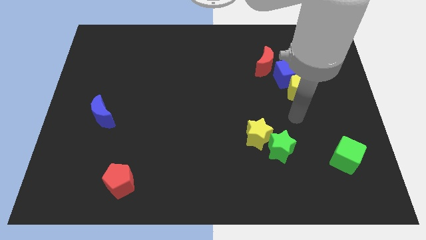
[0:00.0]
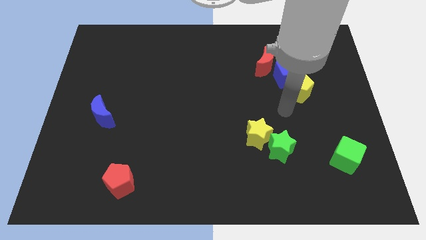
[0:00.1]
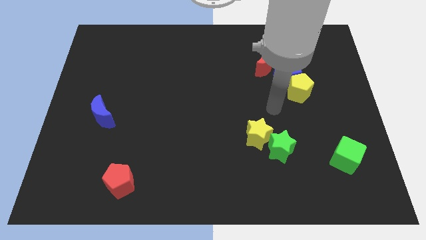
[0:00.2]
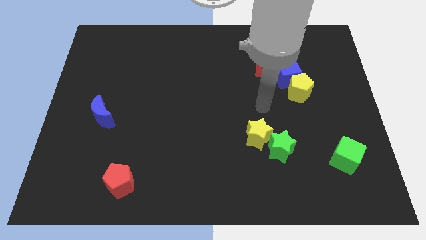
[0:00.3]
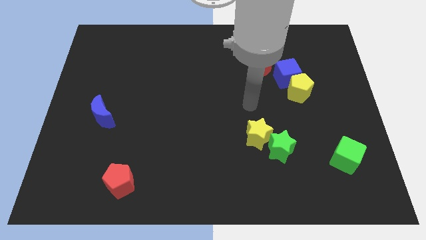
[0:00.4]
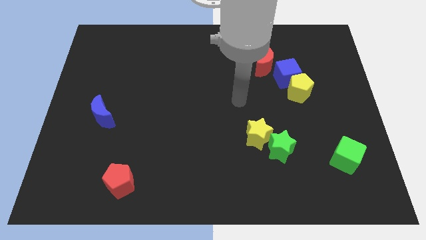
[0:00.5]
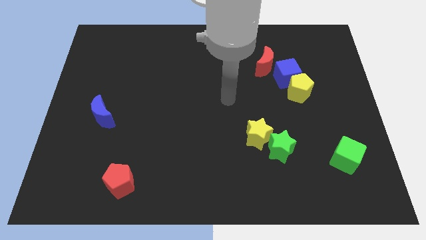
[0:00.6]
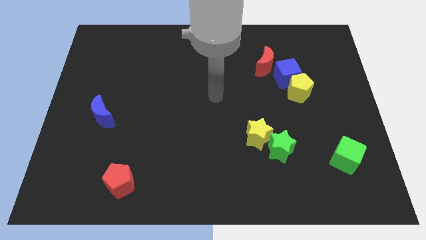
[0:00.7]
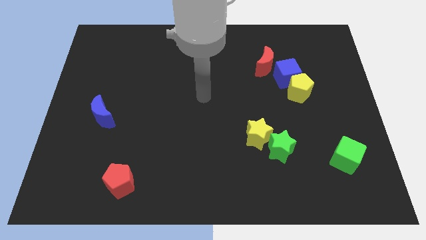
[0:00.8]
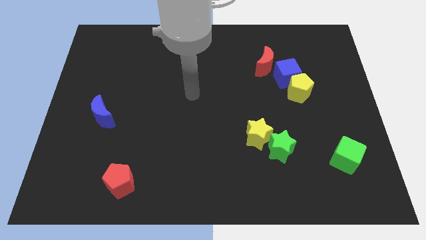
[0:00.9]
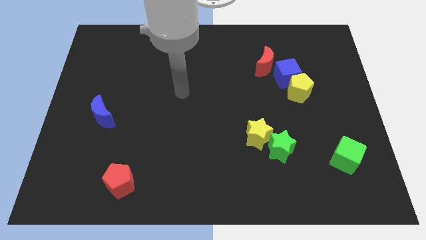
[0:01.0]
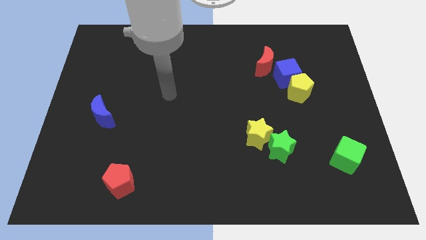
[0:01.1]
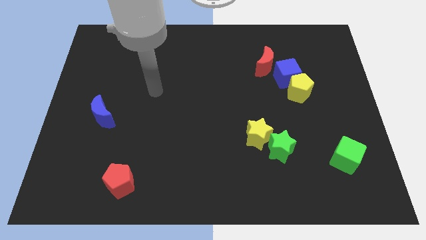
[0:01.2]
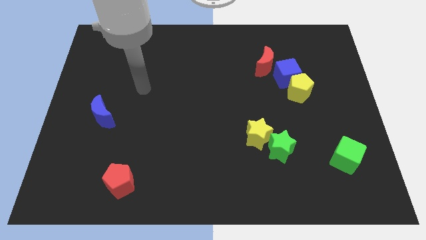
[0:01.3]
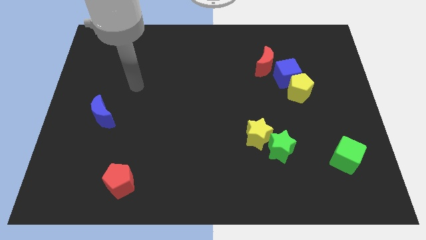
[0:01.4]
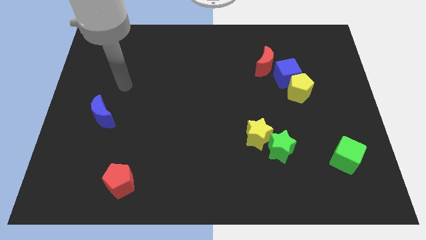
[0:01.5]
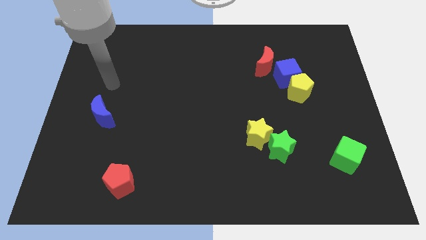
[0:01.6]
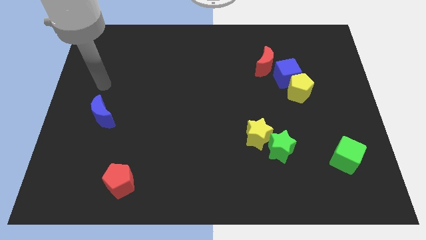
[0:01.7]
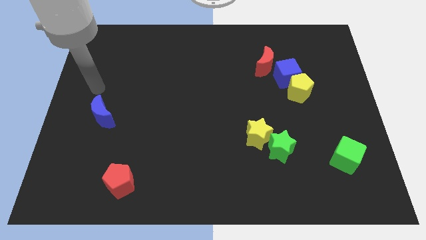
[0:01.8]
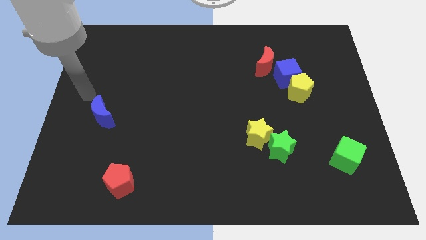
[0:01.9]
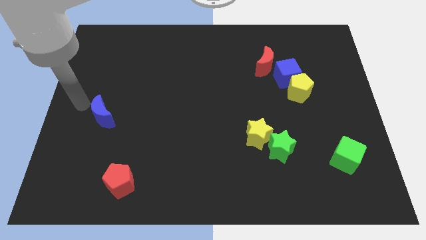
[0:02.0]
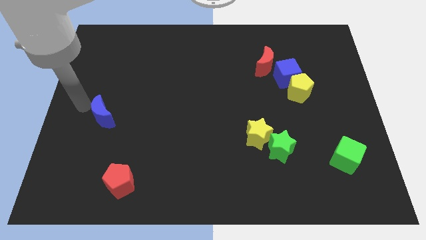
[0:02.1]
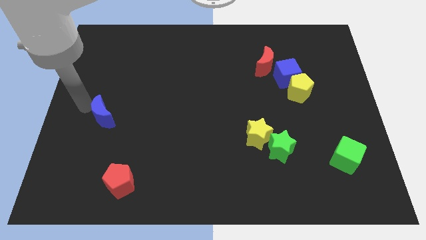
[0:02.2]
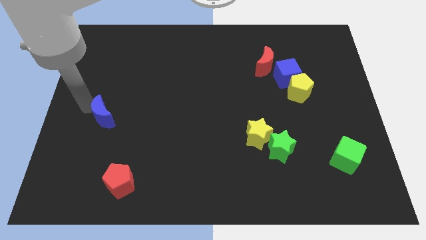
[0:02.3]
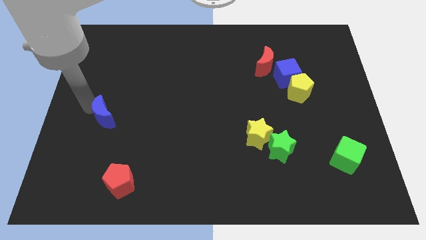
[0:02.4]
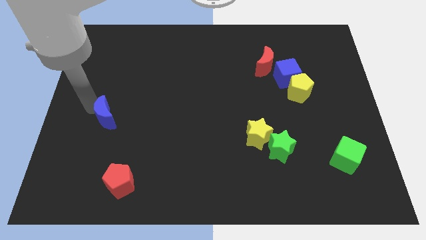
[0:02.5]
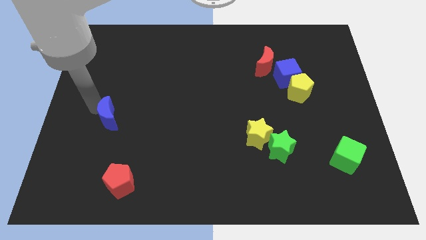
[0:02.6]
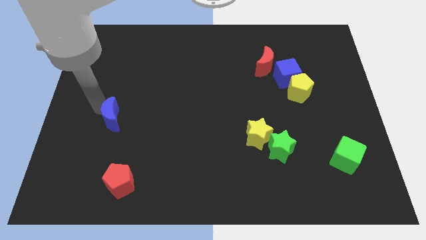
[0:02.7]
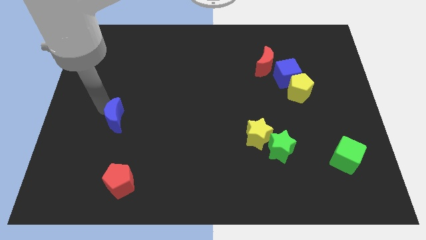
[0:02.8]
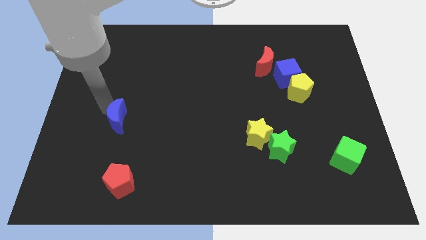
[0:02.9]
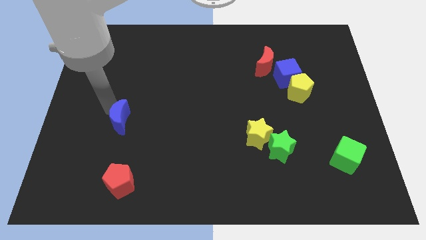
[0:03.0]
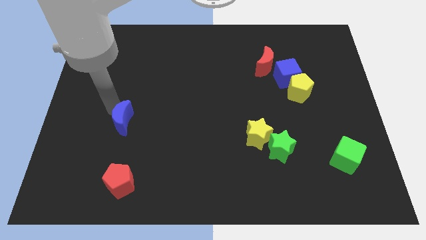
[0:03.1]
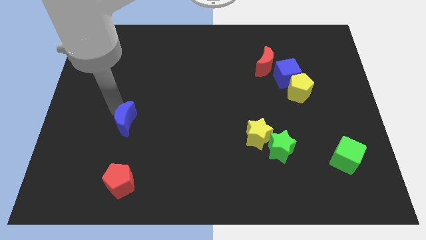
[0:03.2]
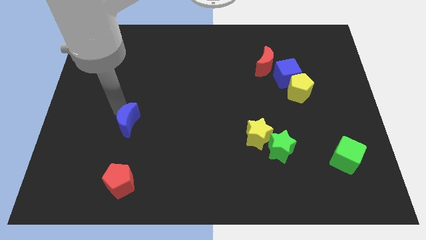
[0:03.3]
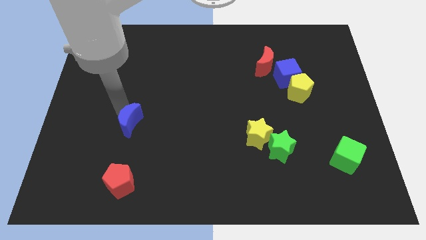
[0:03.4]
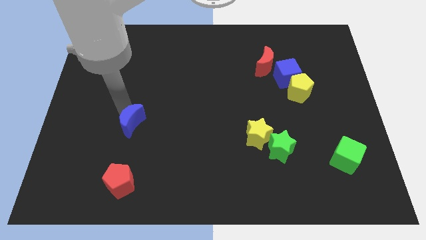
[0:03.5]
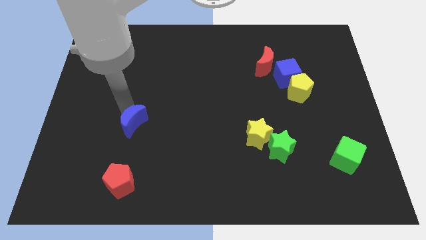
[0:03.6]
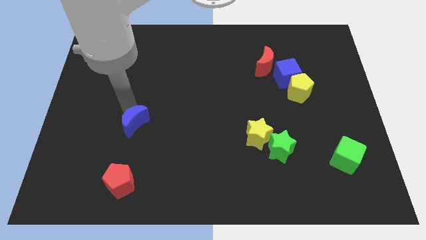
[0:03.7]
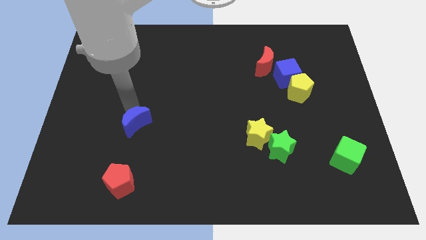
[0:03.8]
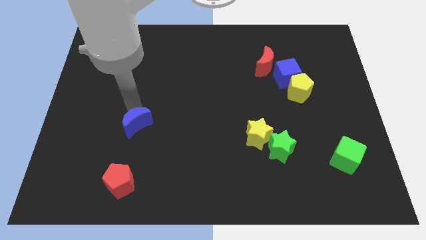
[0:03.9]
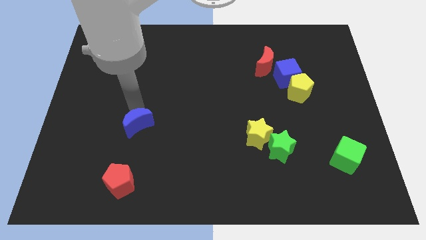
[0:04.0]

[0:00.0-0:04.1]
slide the blue moon a little bit down and to the right diagonally

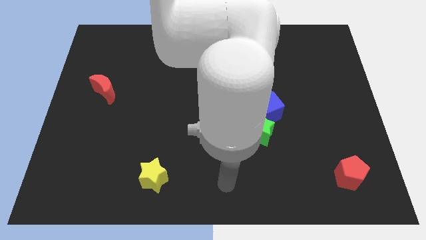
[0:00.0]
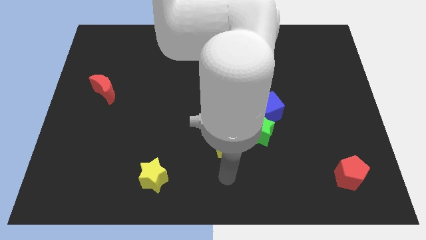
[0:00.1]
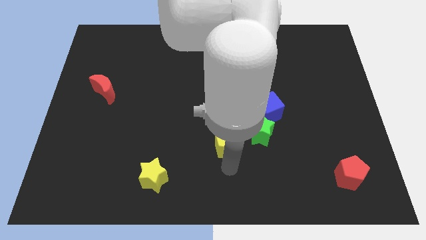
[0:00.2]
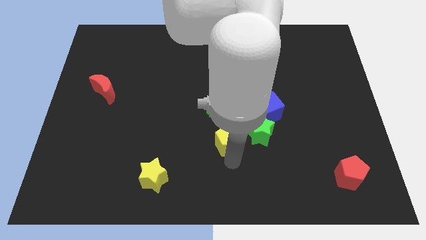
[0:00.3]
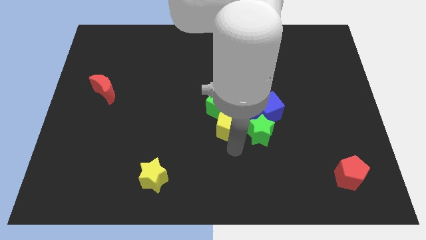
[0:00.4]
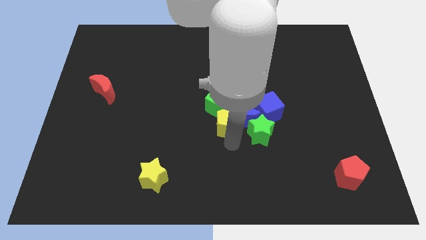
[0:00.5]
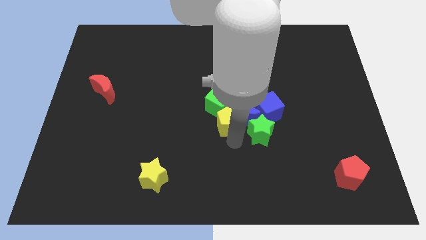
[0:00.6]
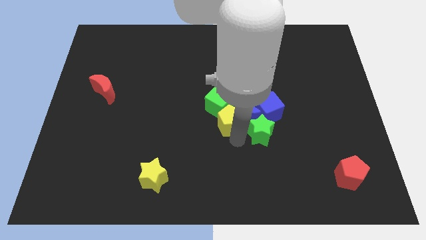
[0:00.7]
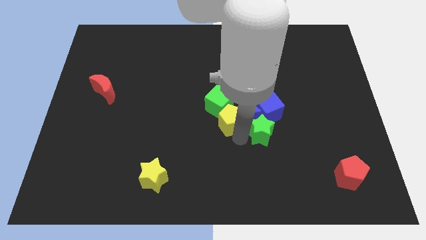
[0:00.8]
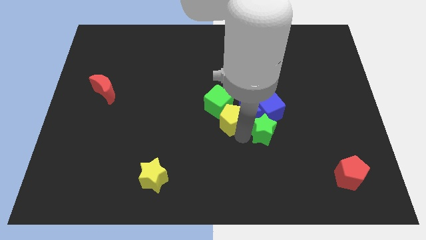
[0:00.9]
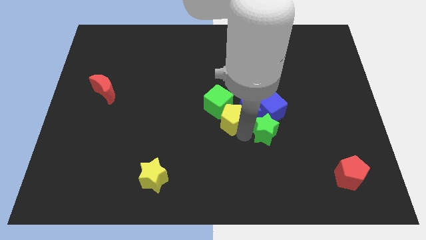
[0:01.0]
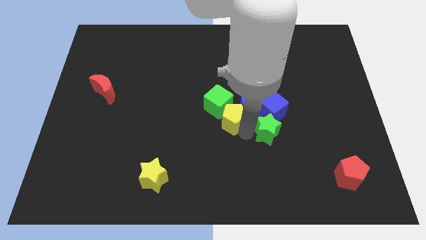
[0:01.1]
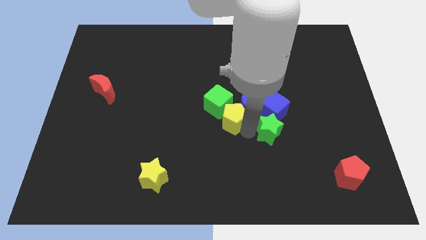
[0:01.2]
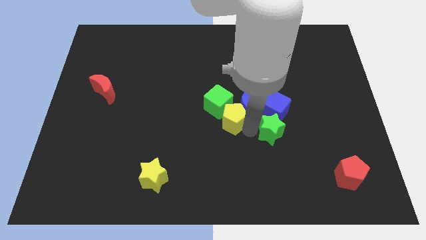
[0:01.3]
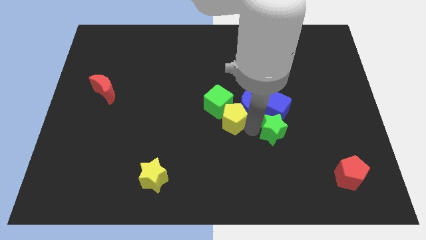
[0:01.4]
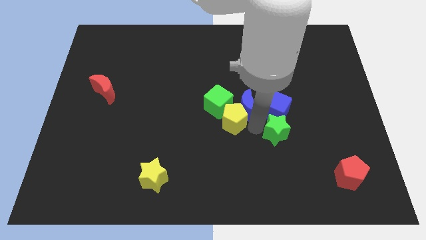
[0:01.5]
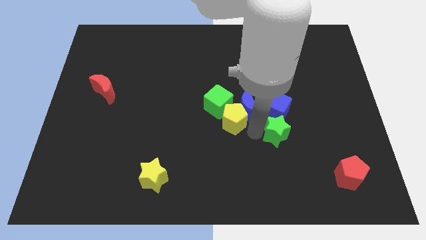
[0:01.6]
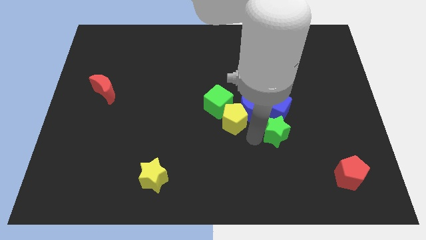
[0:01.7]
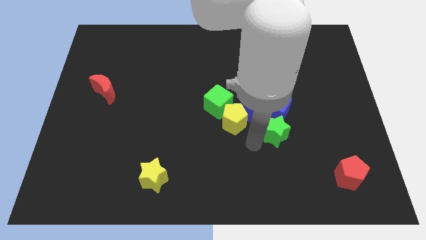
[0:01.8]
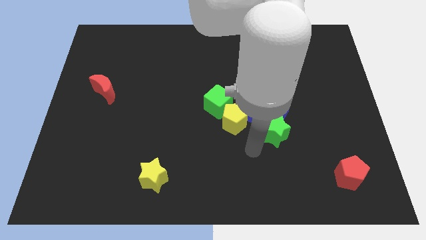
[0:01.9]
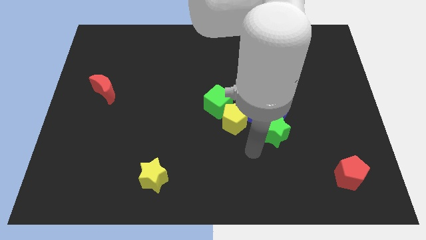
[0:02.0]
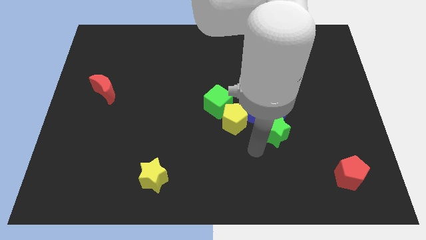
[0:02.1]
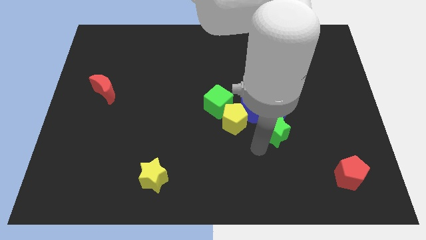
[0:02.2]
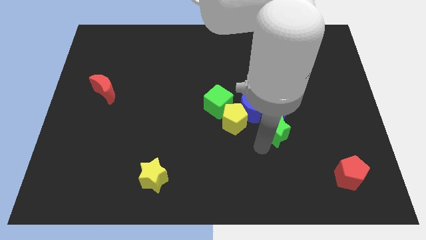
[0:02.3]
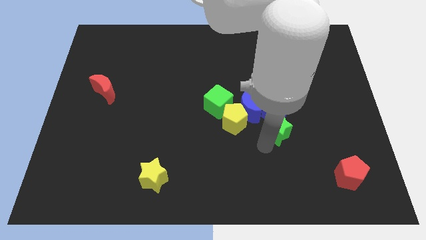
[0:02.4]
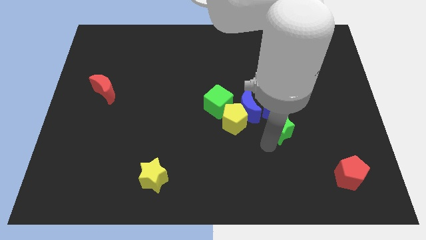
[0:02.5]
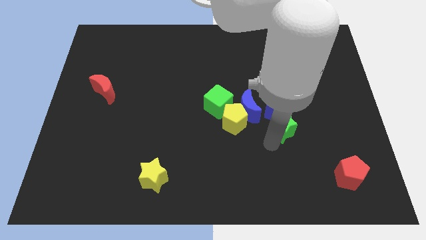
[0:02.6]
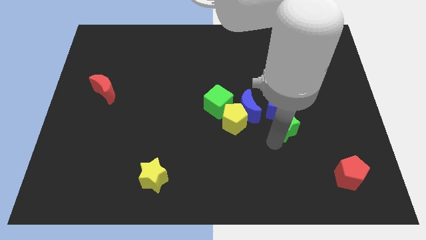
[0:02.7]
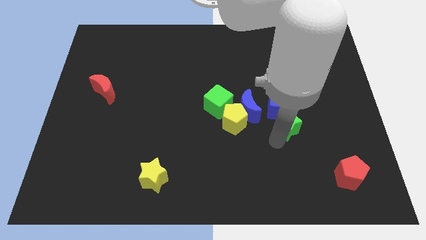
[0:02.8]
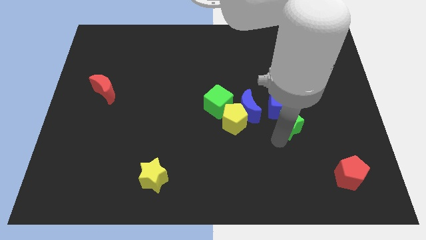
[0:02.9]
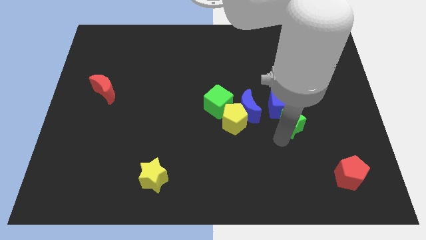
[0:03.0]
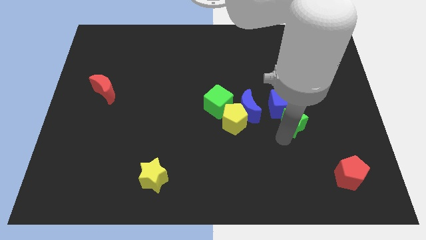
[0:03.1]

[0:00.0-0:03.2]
slightly push the green star diagonally upwards and right

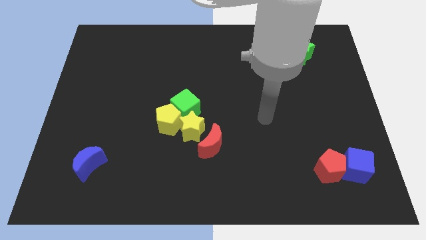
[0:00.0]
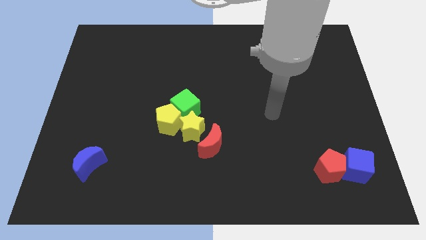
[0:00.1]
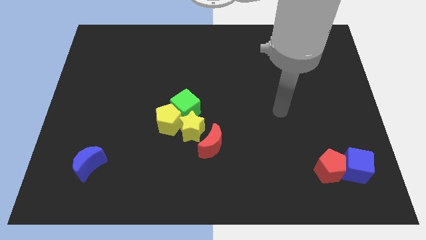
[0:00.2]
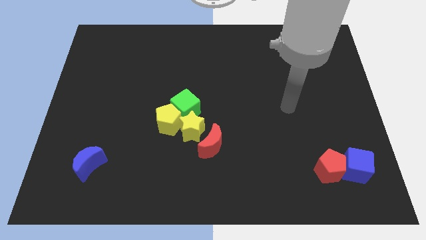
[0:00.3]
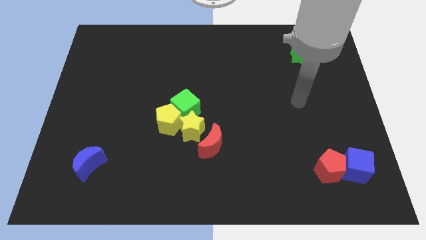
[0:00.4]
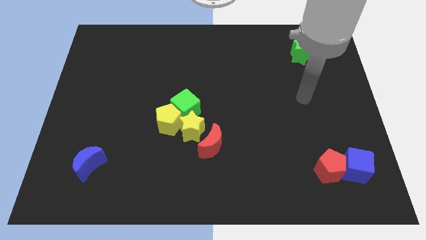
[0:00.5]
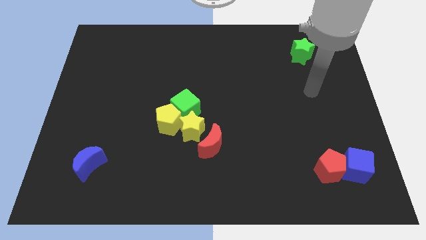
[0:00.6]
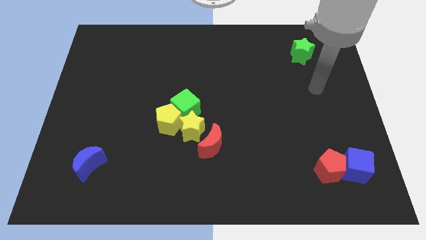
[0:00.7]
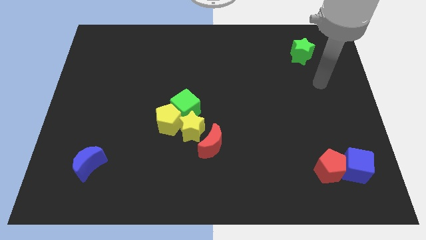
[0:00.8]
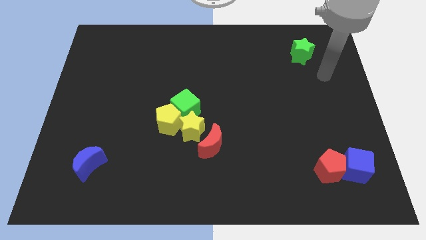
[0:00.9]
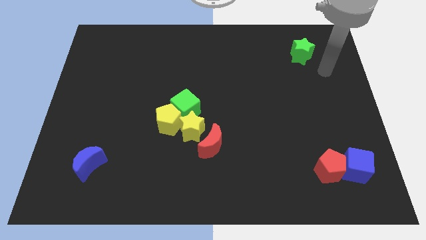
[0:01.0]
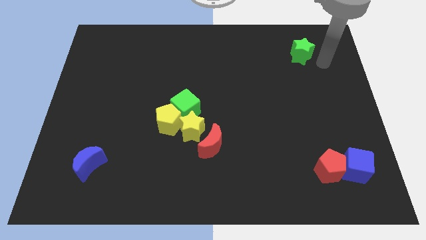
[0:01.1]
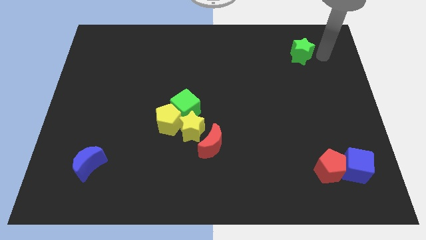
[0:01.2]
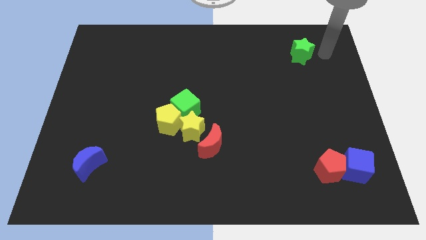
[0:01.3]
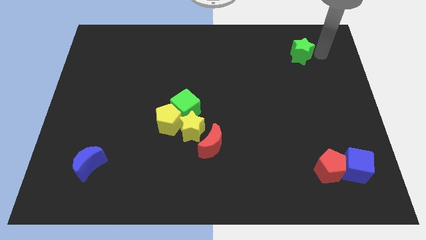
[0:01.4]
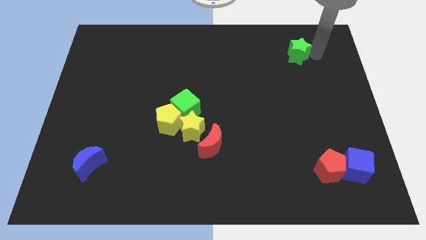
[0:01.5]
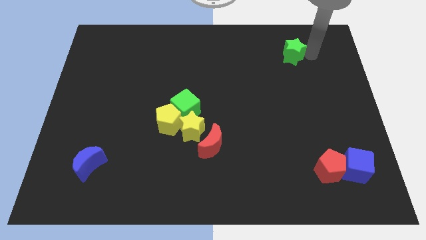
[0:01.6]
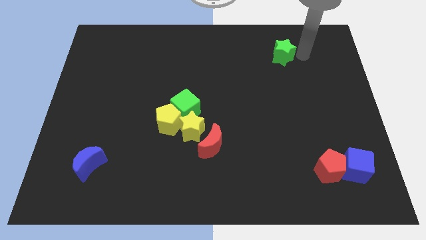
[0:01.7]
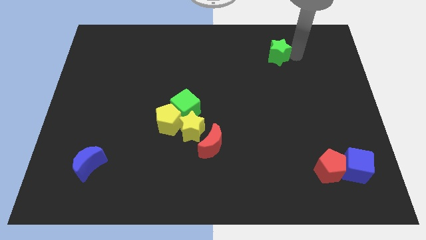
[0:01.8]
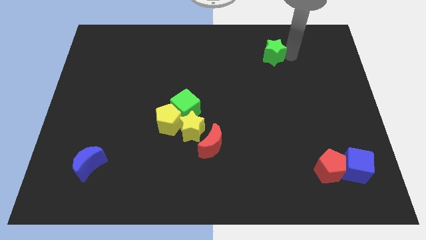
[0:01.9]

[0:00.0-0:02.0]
slide the green star a little to the left
